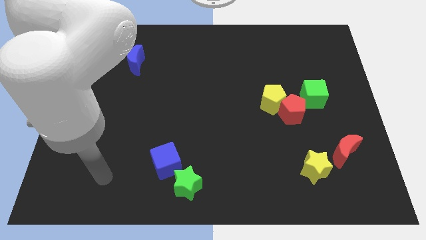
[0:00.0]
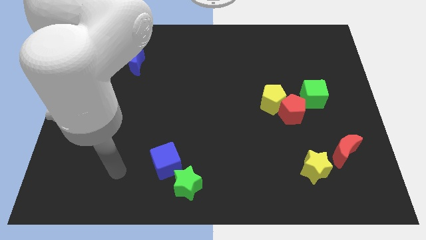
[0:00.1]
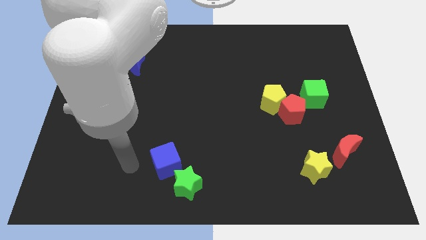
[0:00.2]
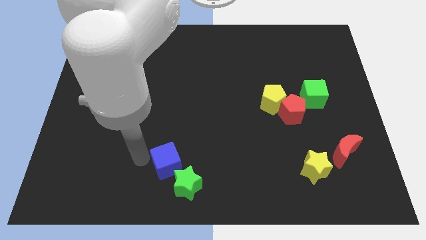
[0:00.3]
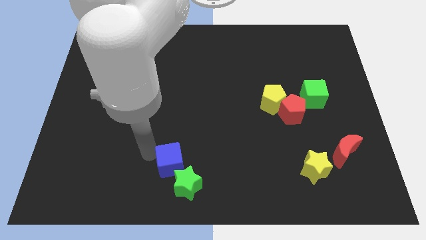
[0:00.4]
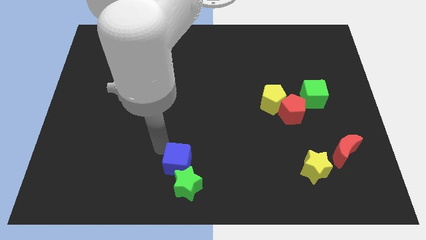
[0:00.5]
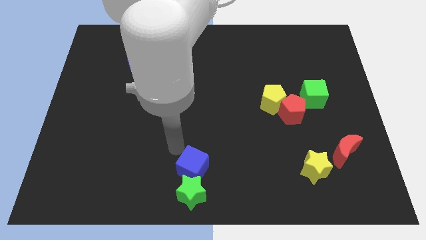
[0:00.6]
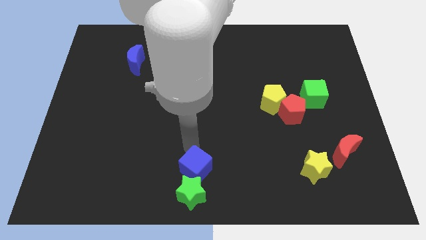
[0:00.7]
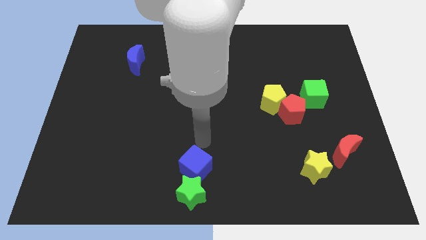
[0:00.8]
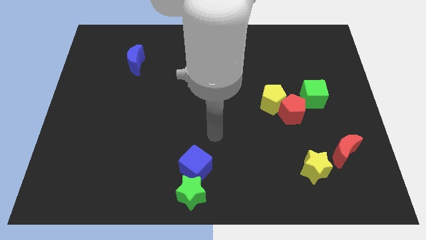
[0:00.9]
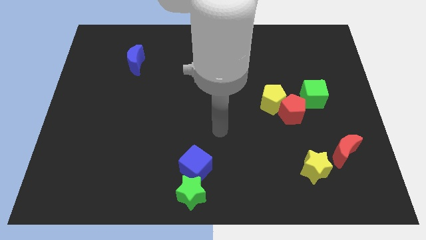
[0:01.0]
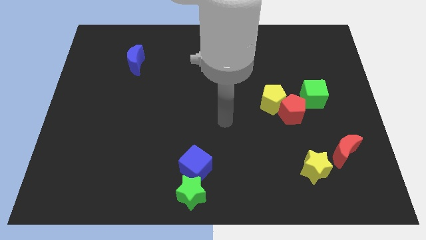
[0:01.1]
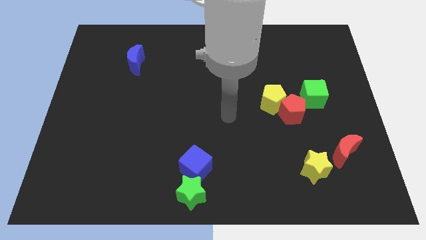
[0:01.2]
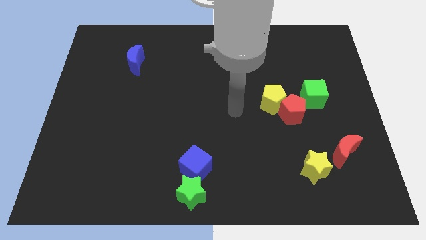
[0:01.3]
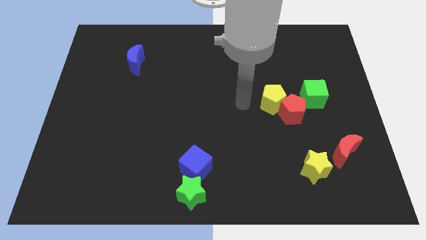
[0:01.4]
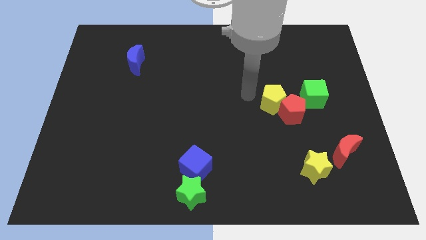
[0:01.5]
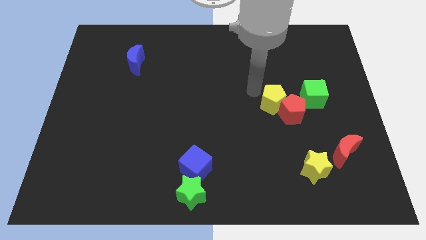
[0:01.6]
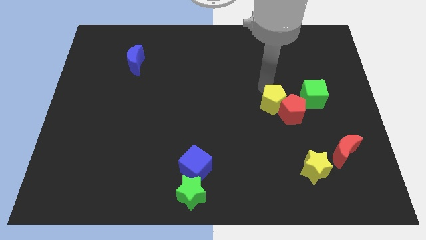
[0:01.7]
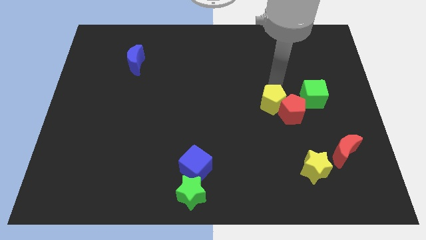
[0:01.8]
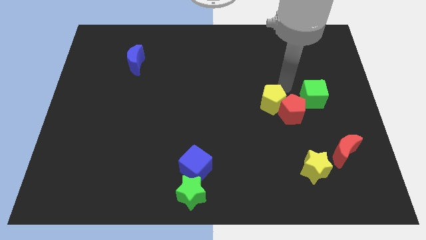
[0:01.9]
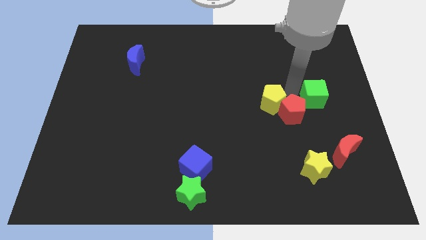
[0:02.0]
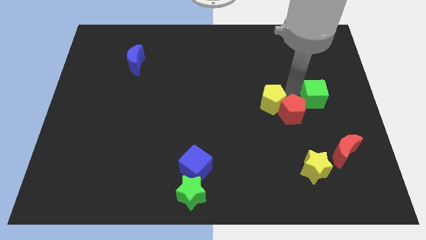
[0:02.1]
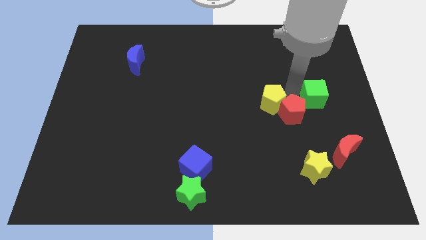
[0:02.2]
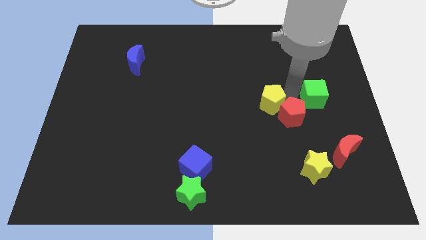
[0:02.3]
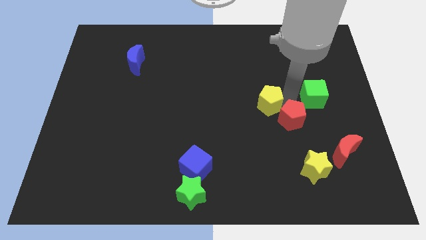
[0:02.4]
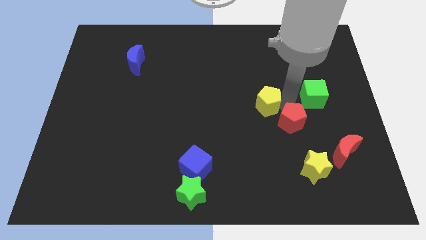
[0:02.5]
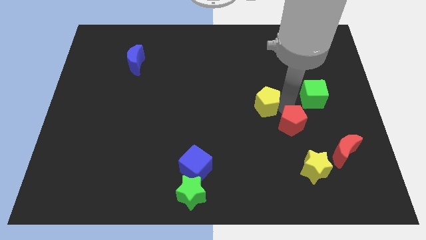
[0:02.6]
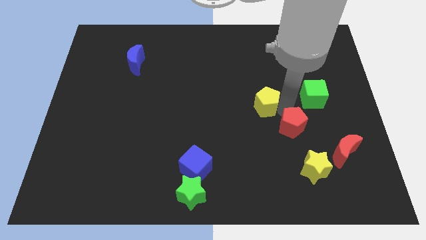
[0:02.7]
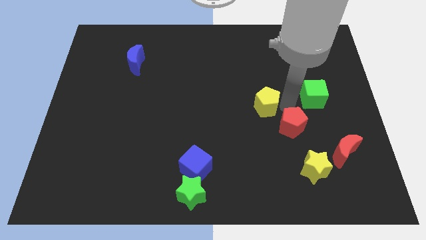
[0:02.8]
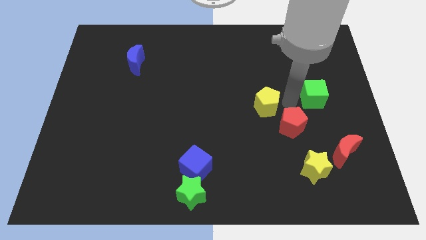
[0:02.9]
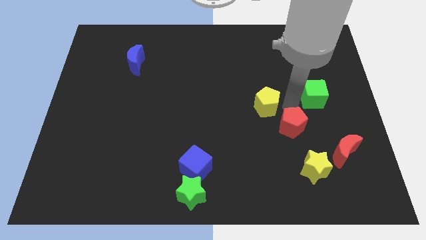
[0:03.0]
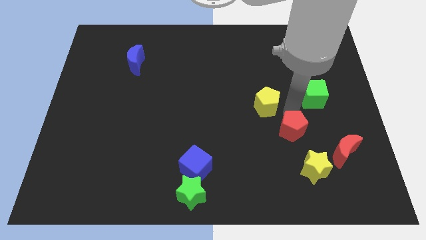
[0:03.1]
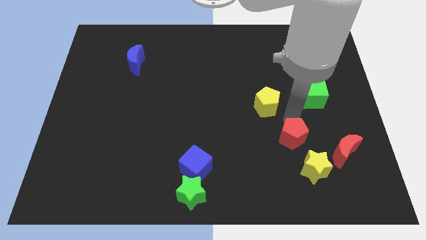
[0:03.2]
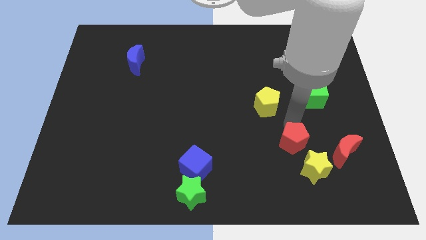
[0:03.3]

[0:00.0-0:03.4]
pull the red pentagon apart from the yellow pentagon and green cube

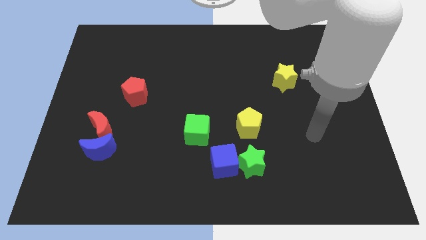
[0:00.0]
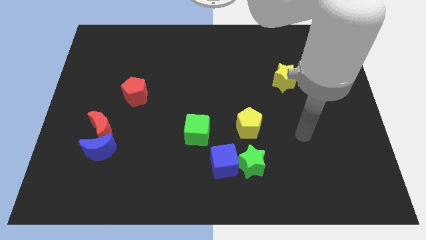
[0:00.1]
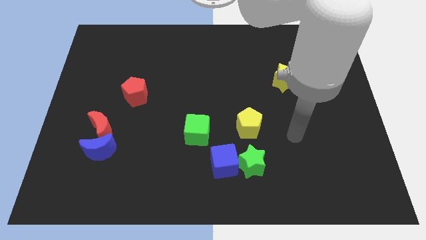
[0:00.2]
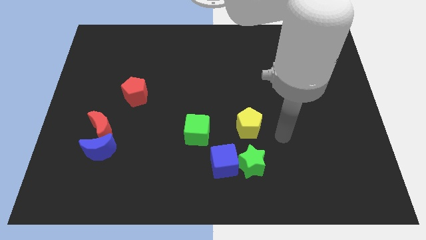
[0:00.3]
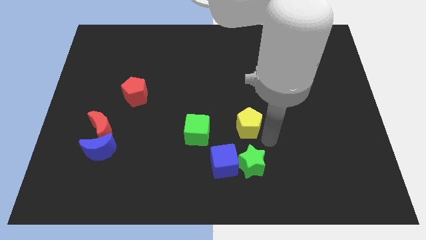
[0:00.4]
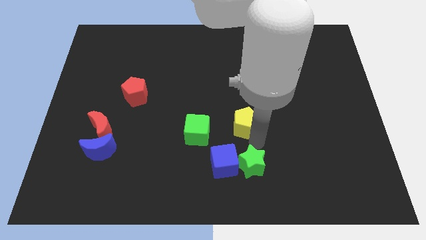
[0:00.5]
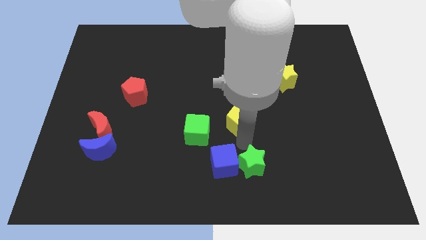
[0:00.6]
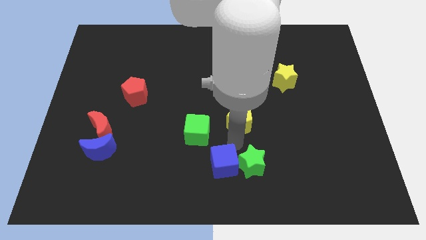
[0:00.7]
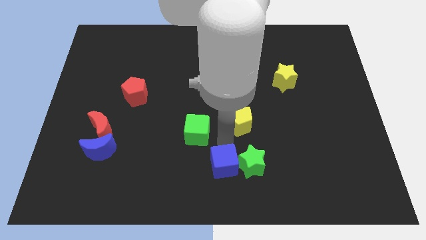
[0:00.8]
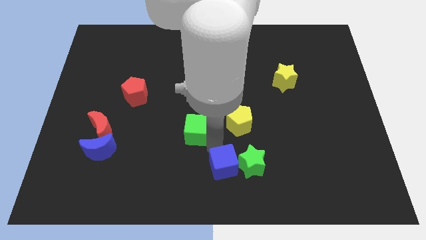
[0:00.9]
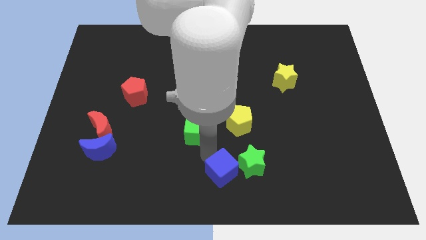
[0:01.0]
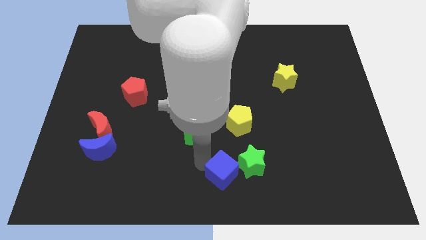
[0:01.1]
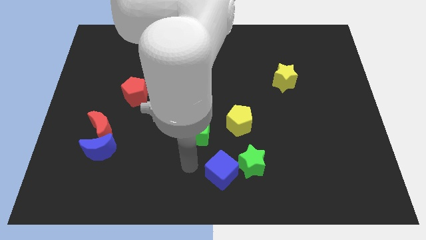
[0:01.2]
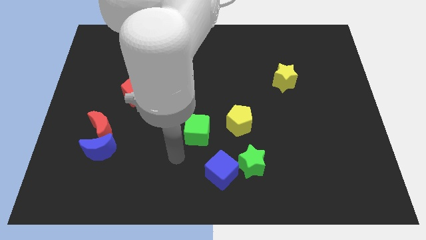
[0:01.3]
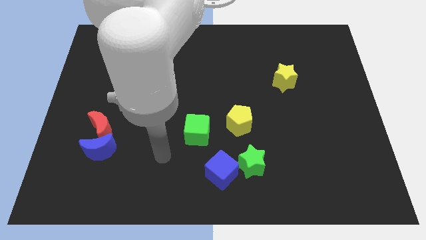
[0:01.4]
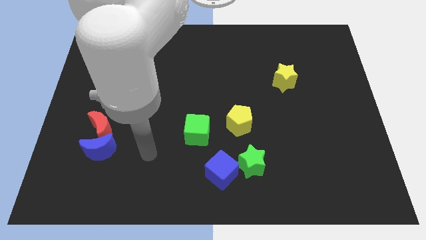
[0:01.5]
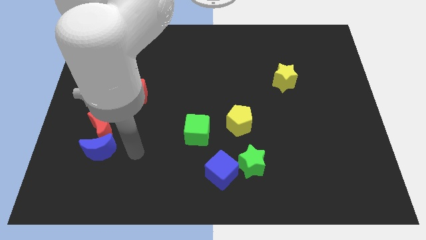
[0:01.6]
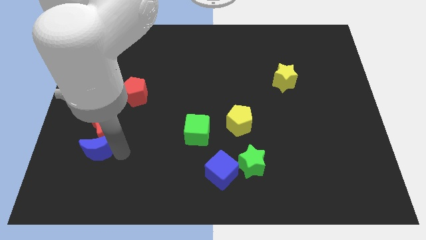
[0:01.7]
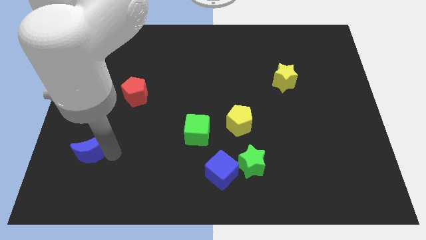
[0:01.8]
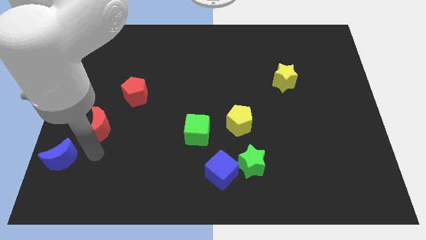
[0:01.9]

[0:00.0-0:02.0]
pull the red moon apart from the blue moon

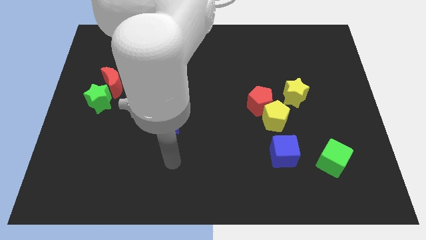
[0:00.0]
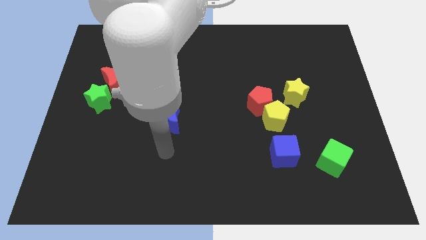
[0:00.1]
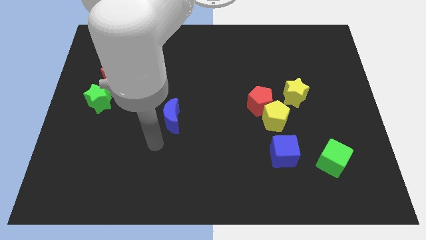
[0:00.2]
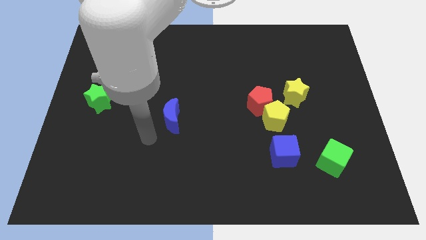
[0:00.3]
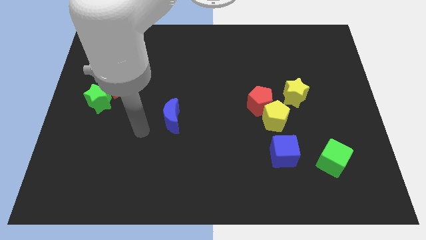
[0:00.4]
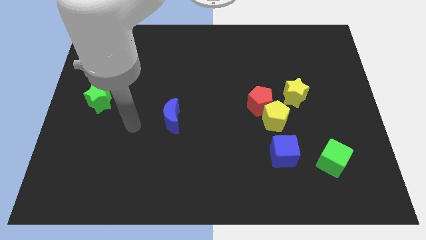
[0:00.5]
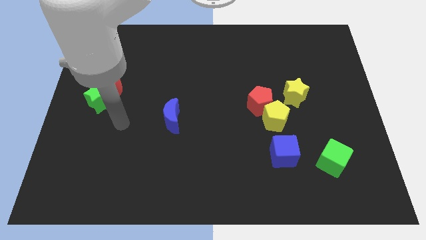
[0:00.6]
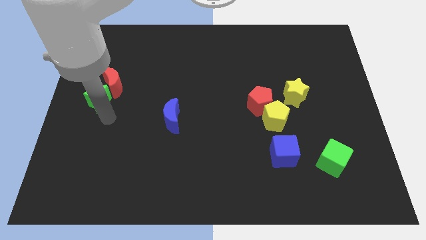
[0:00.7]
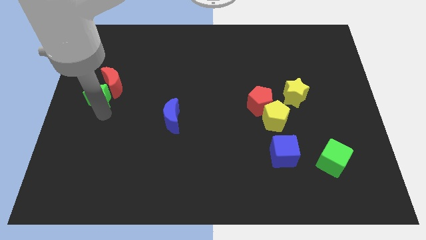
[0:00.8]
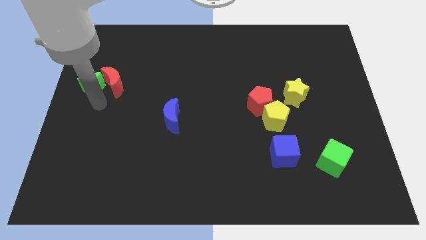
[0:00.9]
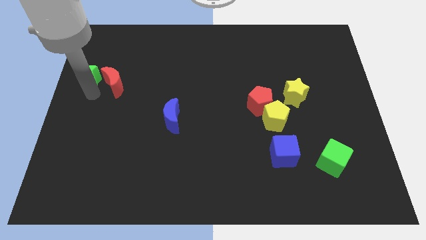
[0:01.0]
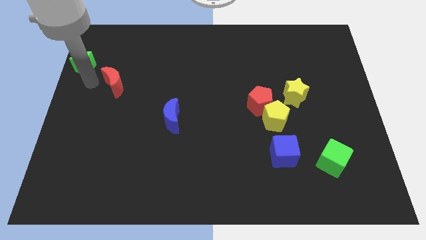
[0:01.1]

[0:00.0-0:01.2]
move the red moon away from the green star

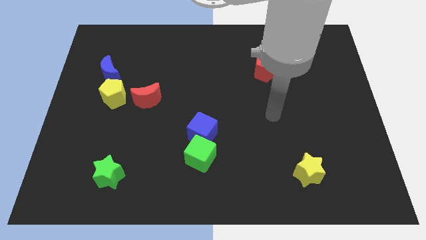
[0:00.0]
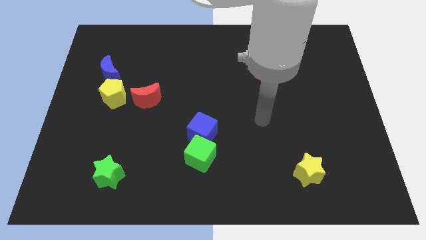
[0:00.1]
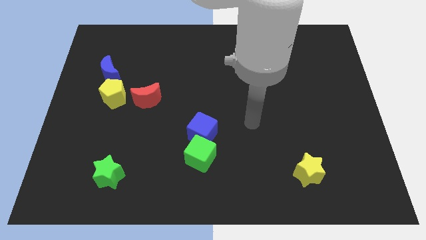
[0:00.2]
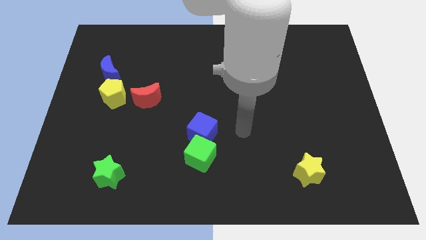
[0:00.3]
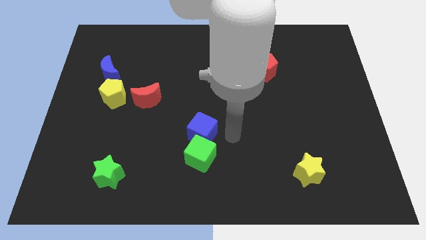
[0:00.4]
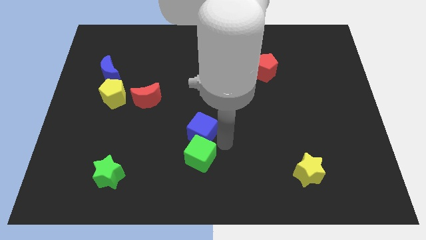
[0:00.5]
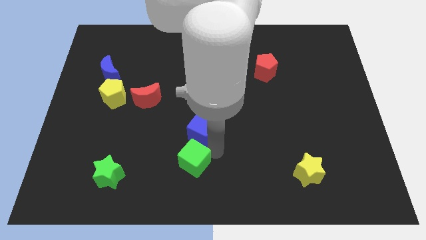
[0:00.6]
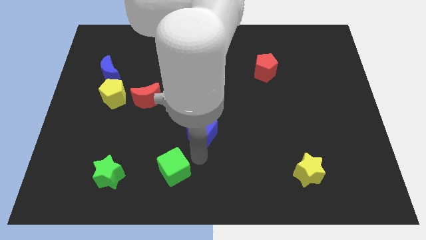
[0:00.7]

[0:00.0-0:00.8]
separate the blue cube from the green cube

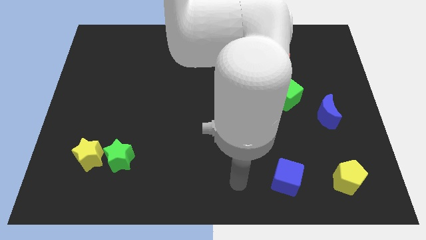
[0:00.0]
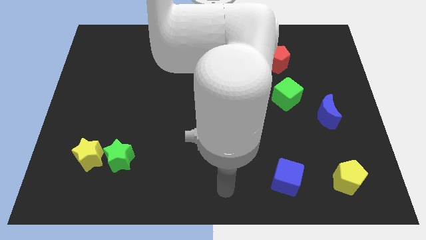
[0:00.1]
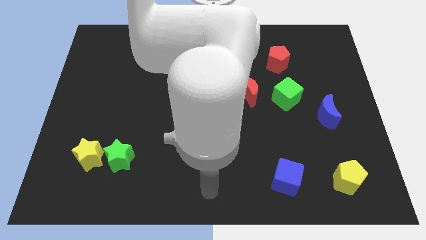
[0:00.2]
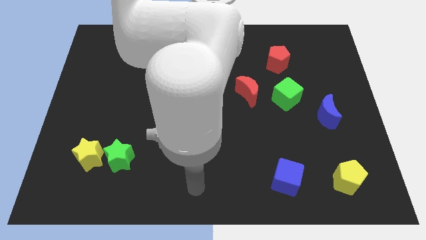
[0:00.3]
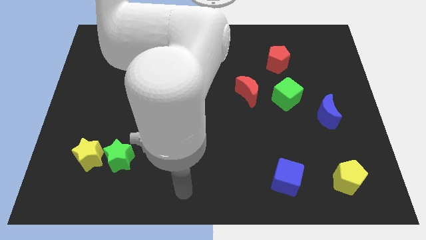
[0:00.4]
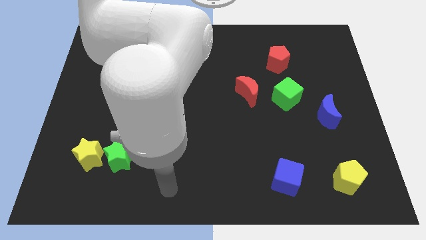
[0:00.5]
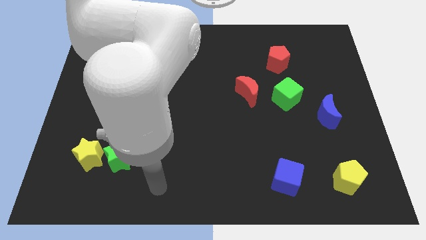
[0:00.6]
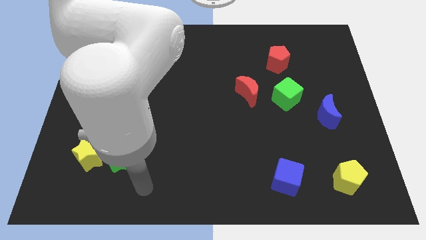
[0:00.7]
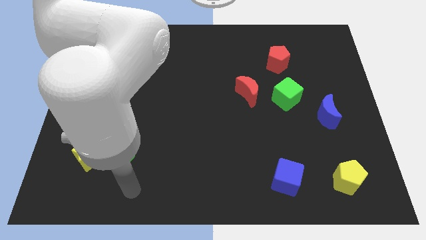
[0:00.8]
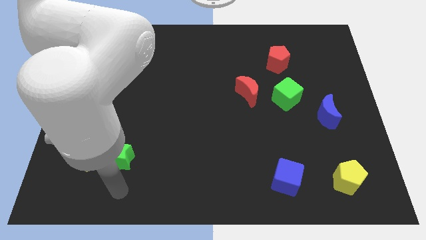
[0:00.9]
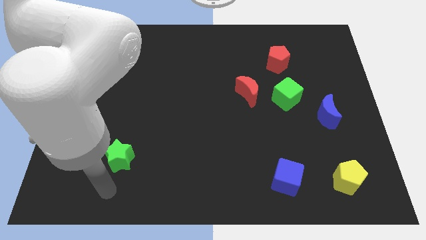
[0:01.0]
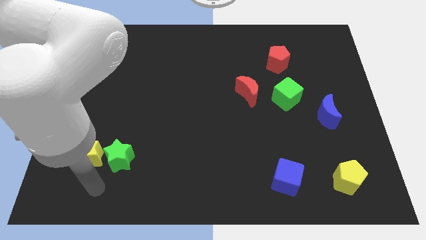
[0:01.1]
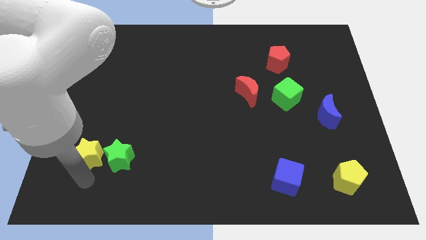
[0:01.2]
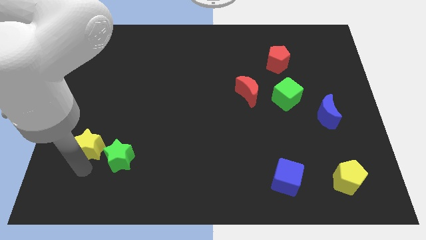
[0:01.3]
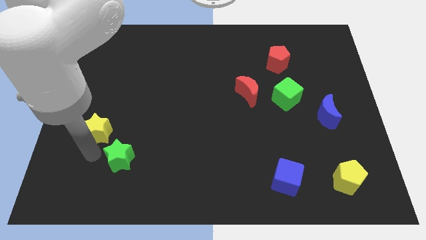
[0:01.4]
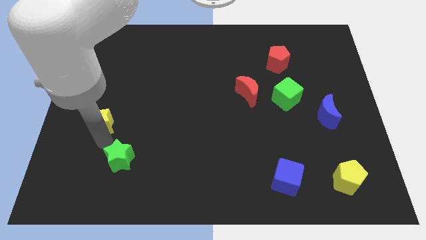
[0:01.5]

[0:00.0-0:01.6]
separate the green star from the yellow star

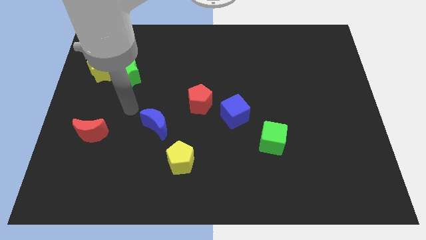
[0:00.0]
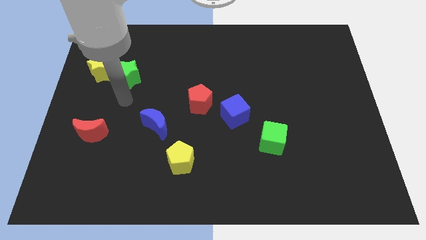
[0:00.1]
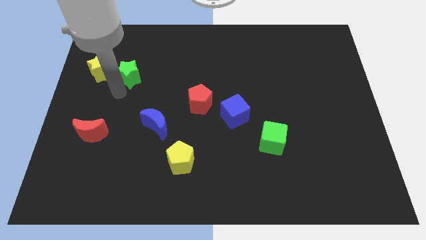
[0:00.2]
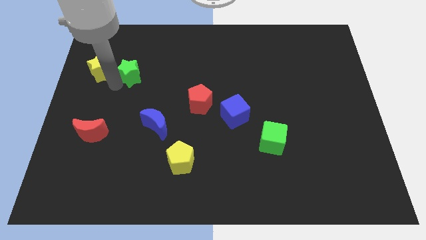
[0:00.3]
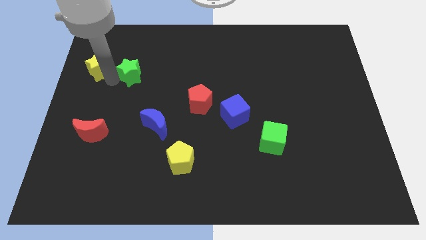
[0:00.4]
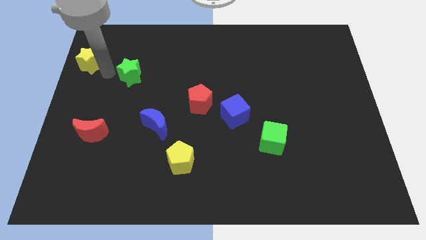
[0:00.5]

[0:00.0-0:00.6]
move the green star away from the yellow star
